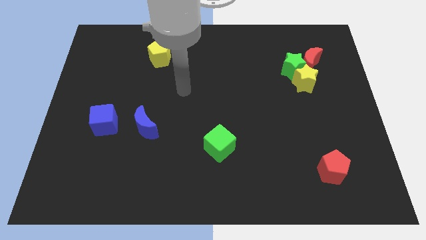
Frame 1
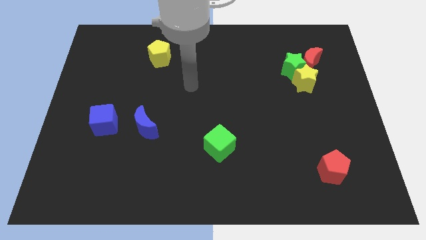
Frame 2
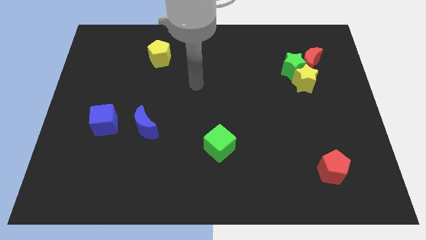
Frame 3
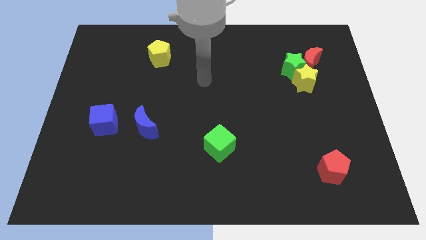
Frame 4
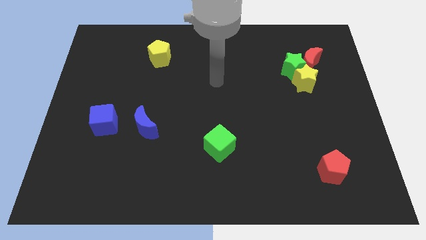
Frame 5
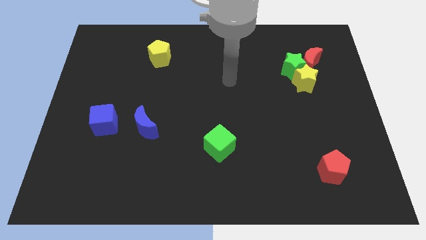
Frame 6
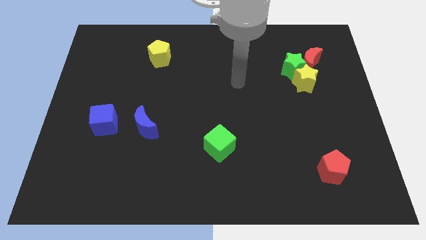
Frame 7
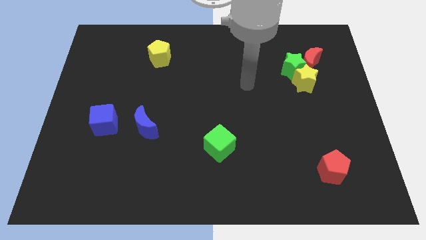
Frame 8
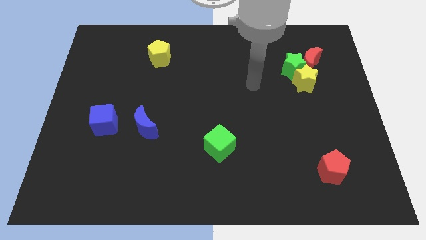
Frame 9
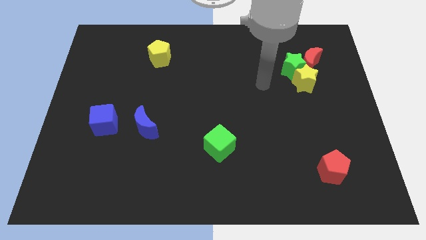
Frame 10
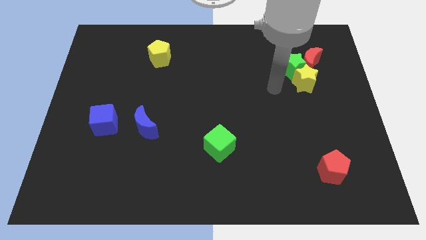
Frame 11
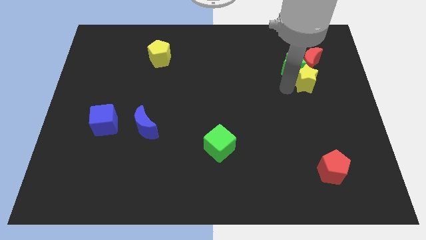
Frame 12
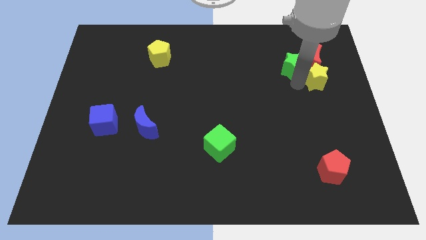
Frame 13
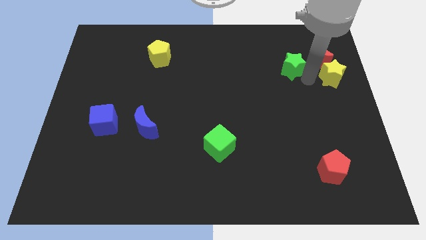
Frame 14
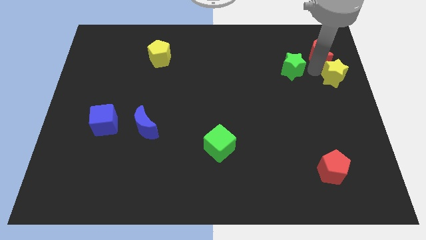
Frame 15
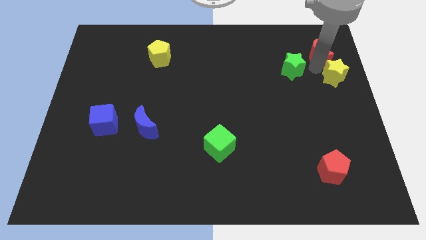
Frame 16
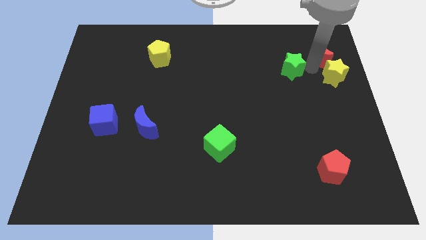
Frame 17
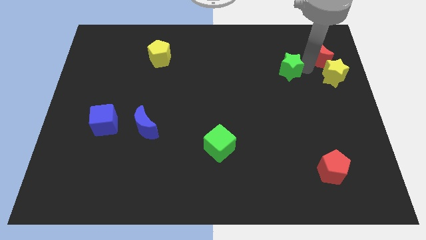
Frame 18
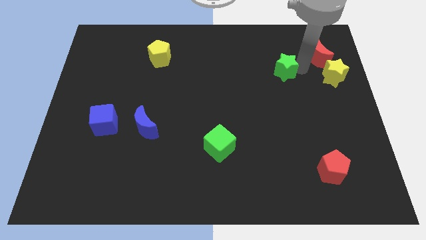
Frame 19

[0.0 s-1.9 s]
move the green star away from the red moon and yellow star

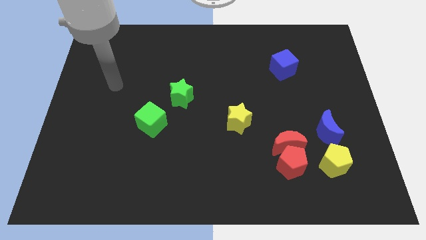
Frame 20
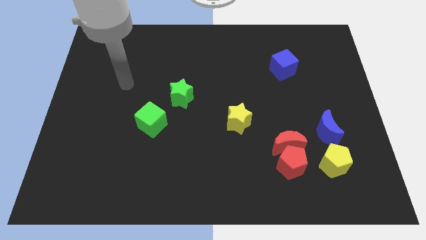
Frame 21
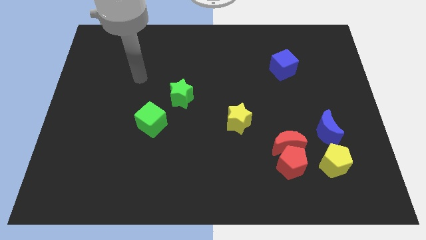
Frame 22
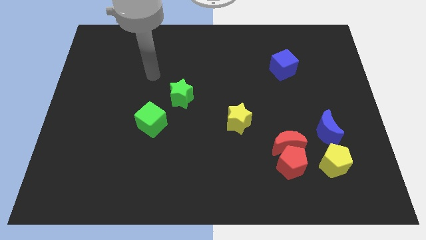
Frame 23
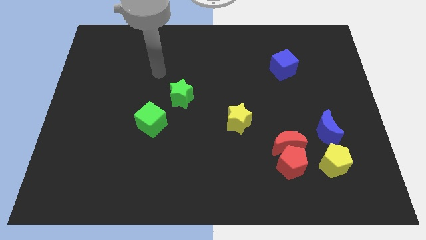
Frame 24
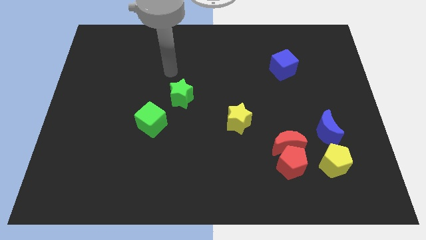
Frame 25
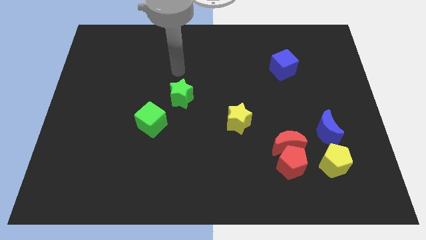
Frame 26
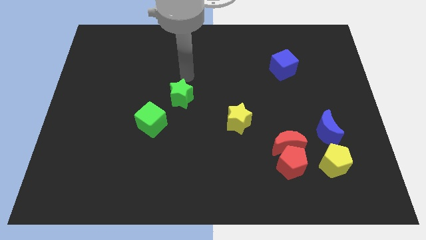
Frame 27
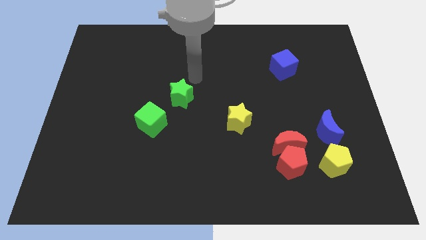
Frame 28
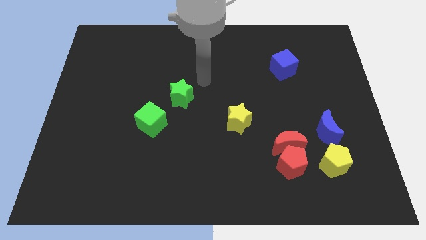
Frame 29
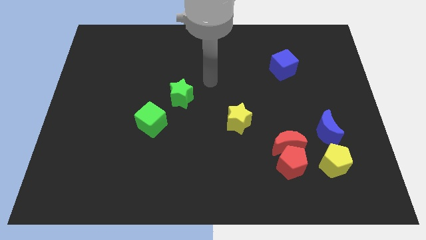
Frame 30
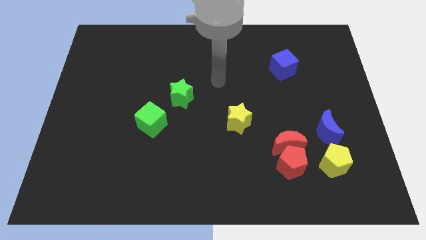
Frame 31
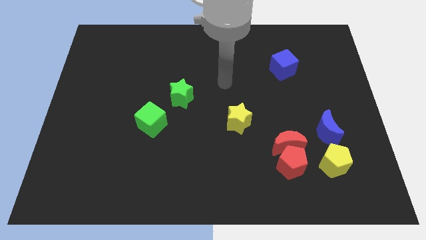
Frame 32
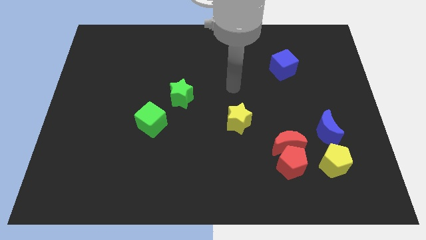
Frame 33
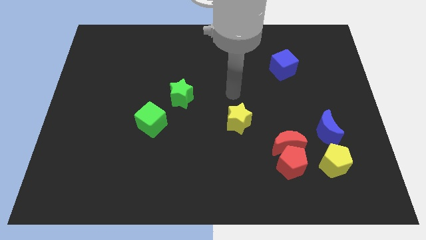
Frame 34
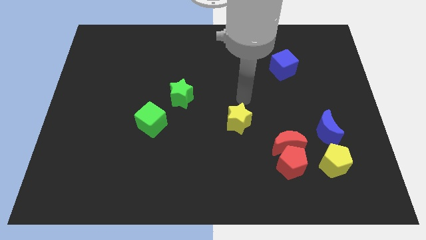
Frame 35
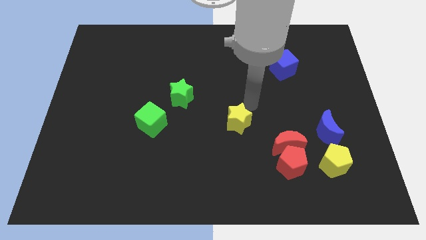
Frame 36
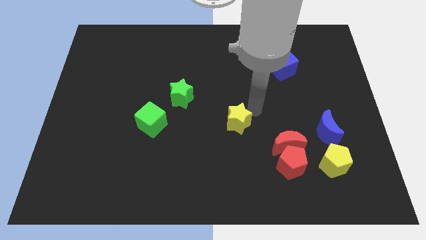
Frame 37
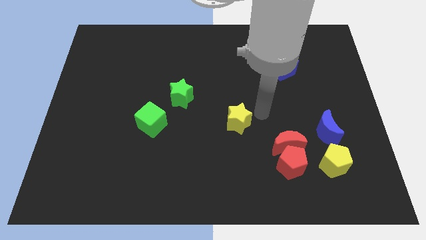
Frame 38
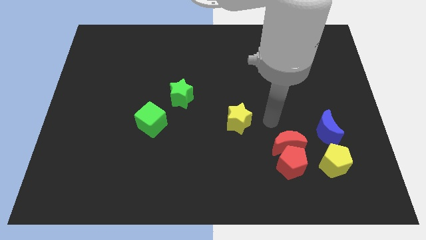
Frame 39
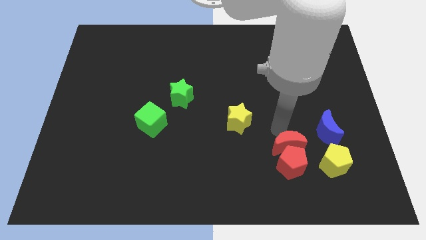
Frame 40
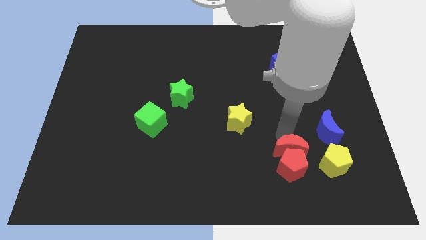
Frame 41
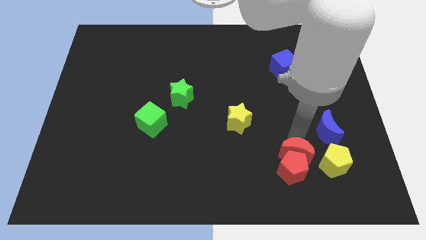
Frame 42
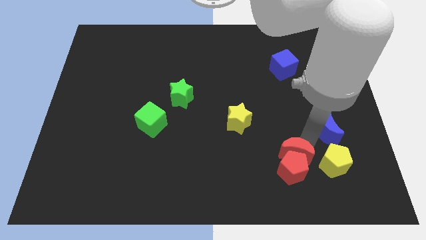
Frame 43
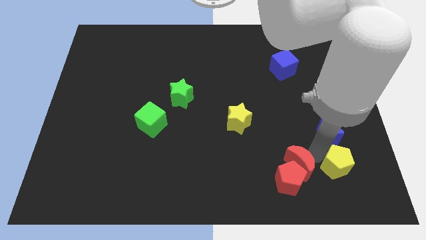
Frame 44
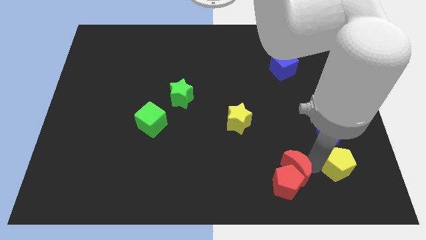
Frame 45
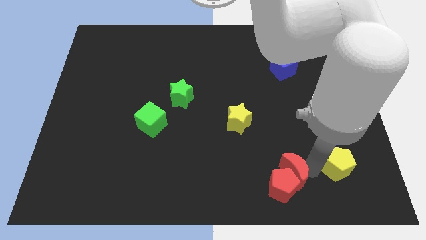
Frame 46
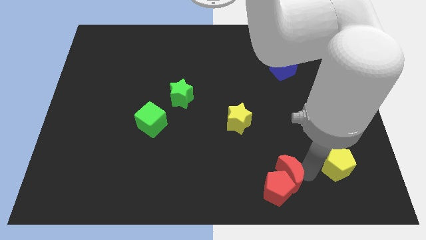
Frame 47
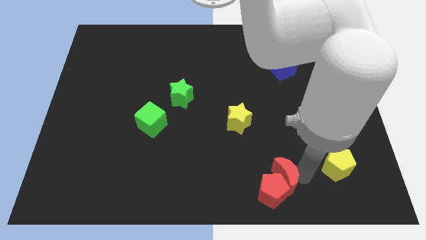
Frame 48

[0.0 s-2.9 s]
move the red pentagon away from the red moon and yellow pentagon

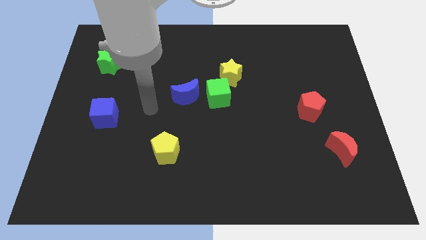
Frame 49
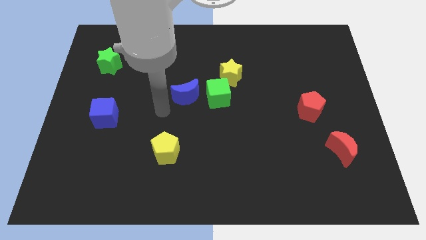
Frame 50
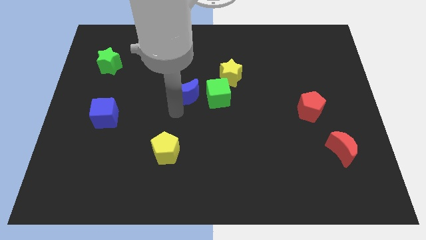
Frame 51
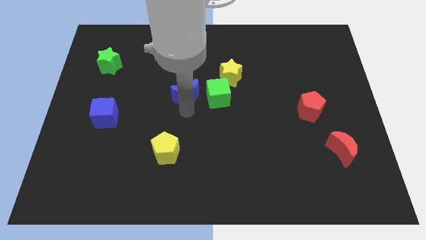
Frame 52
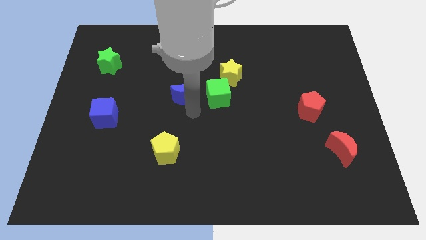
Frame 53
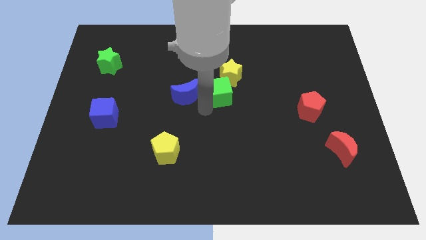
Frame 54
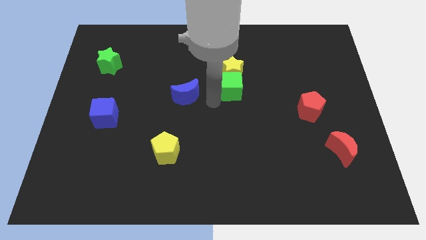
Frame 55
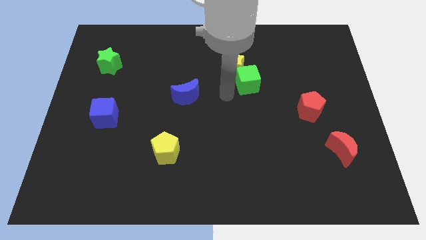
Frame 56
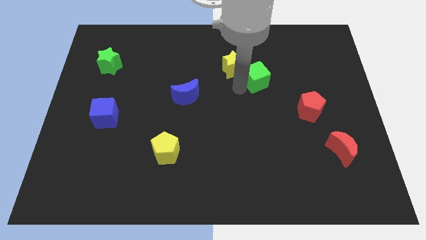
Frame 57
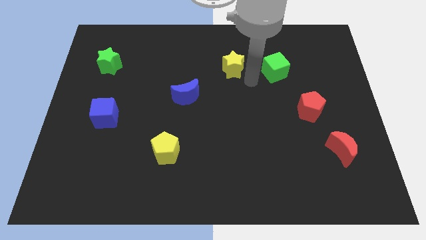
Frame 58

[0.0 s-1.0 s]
pull the yellow star apart from the green cube

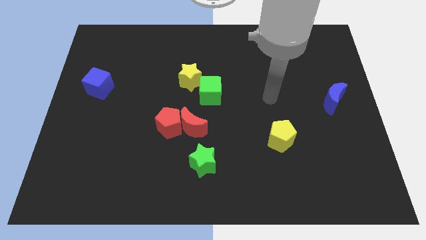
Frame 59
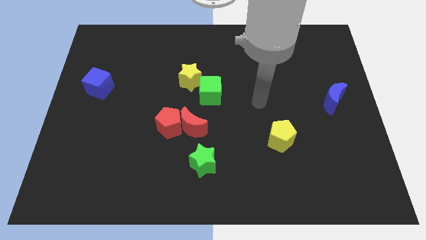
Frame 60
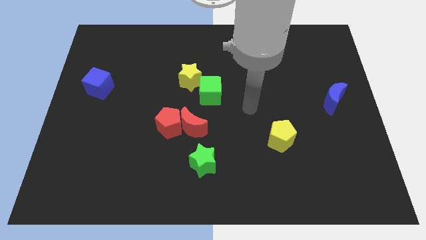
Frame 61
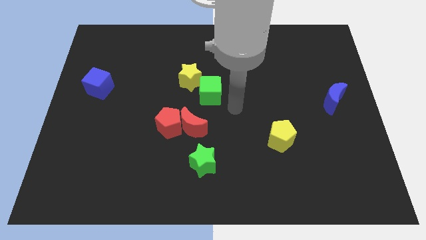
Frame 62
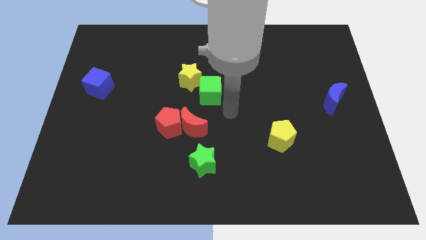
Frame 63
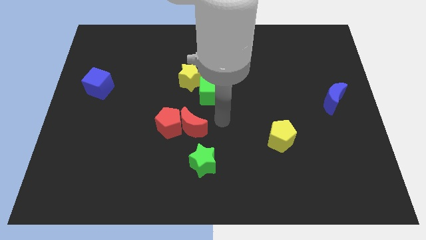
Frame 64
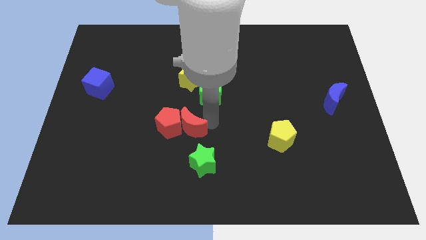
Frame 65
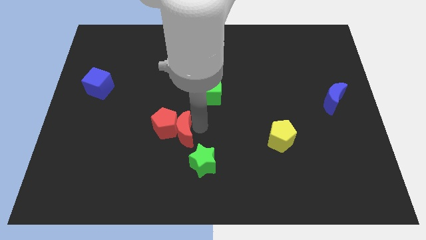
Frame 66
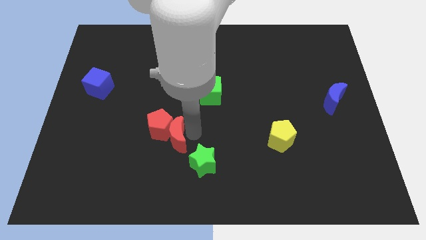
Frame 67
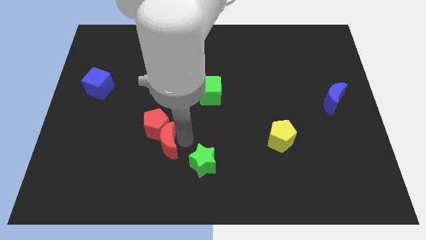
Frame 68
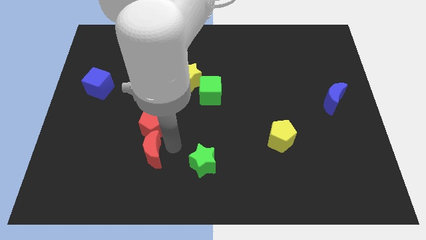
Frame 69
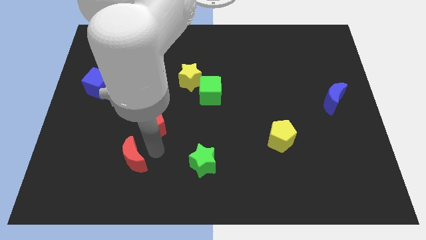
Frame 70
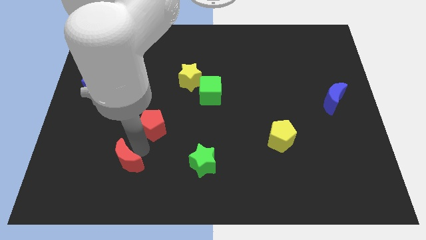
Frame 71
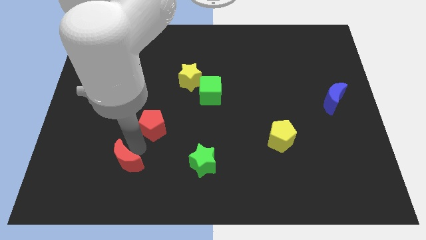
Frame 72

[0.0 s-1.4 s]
move the red pentagon away from the red moon

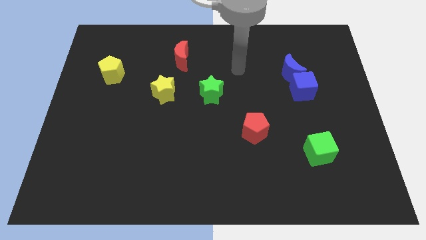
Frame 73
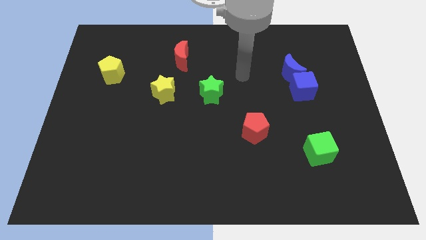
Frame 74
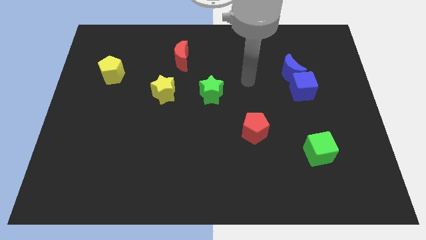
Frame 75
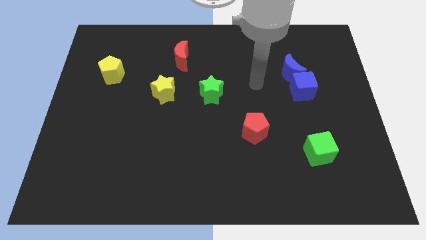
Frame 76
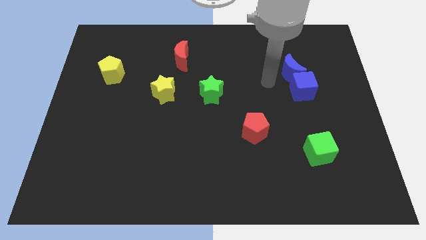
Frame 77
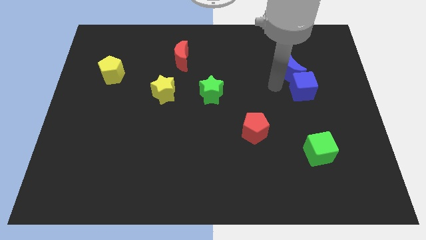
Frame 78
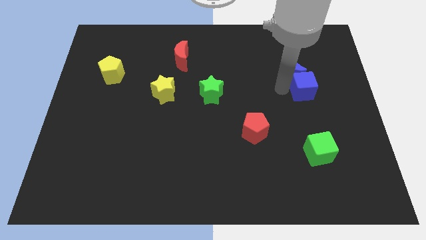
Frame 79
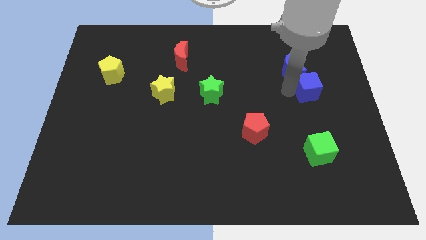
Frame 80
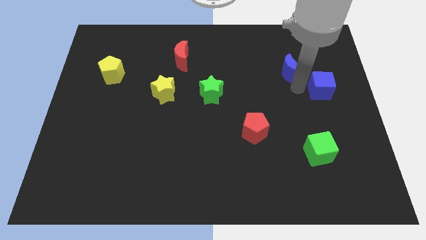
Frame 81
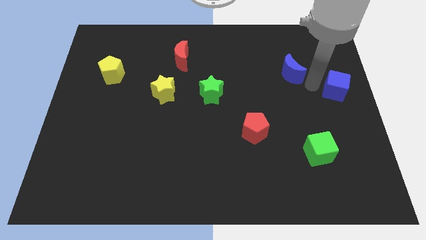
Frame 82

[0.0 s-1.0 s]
pull the blue moon apart from the blue cube

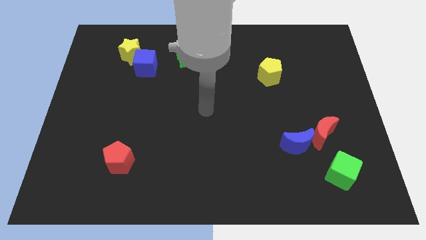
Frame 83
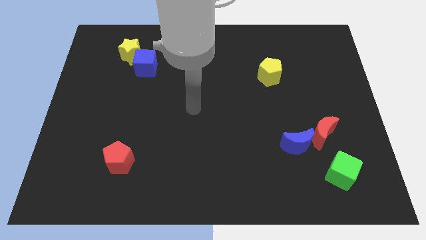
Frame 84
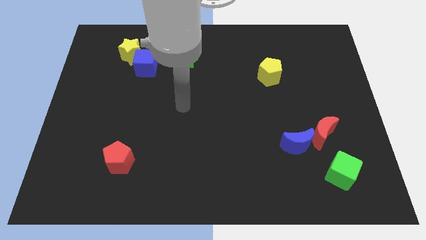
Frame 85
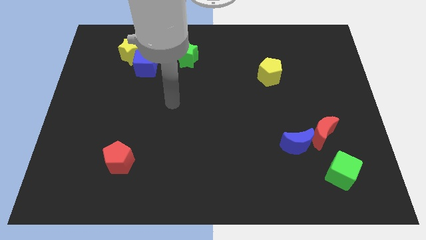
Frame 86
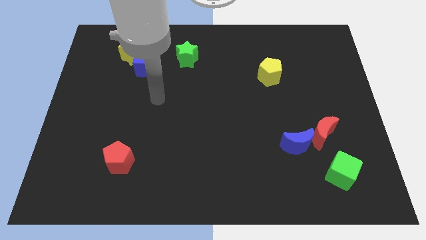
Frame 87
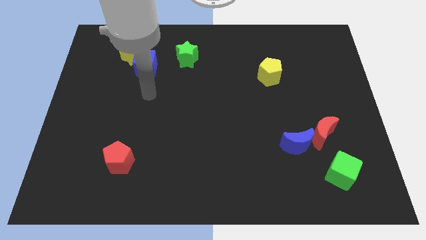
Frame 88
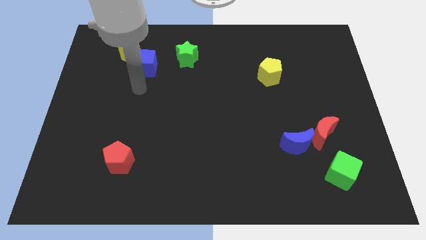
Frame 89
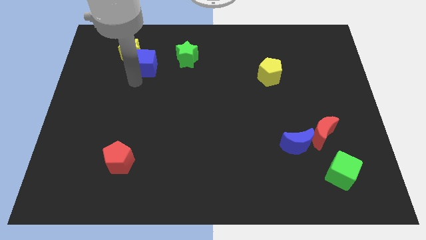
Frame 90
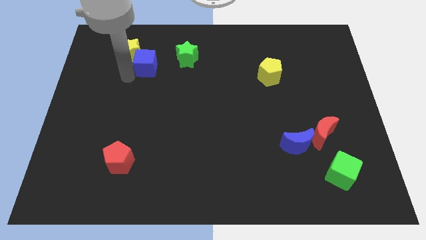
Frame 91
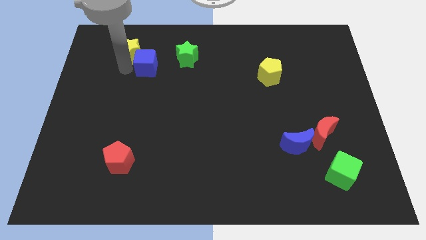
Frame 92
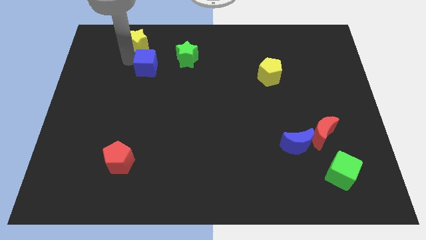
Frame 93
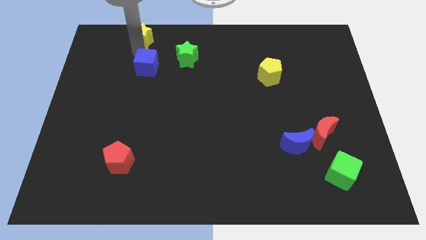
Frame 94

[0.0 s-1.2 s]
pull the blue cube apart from the yellow star
